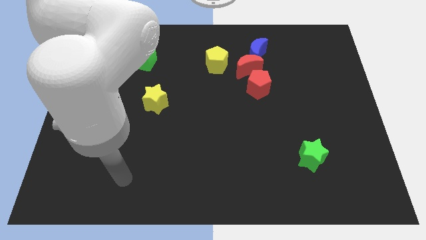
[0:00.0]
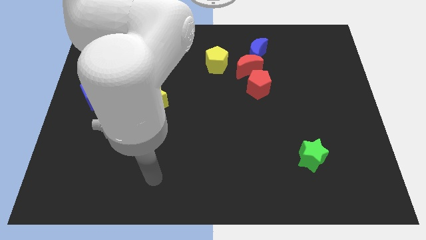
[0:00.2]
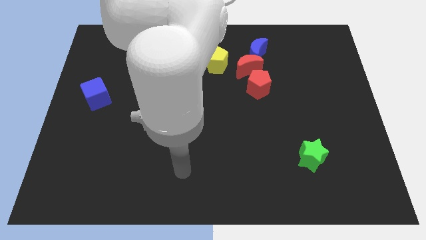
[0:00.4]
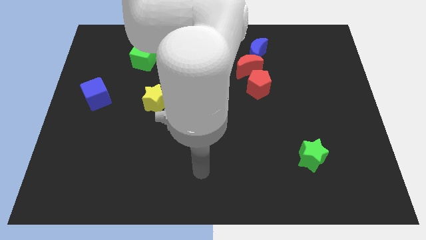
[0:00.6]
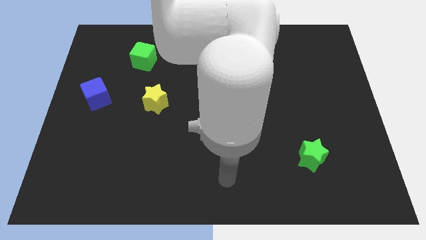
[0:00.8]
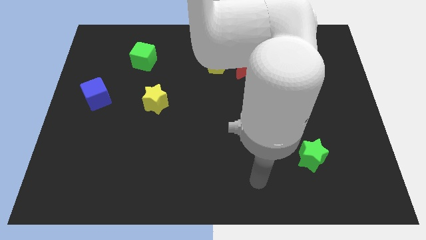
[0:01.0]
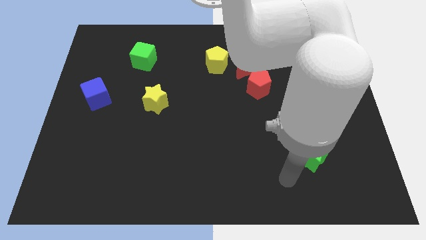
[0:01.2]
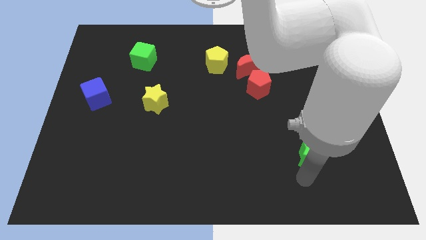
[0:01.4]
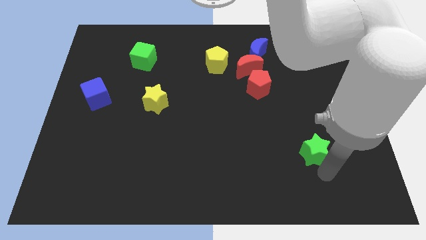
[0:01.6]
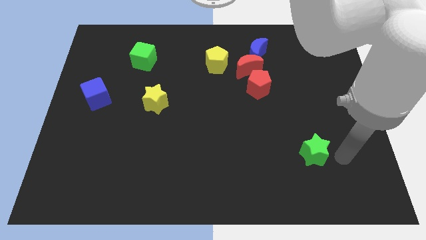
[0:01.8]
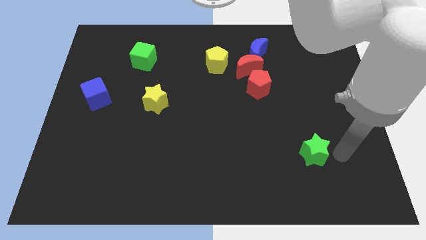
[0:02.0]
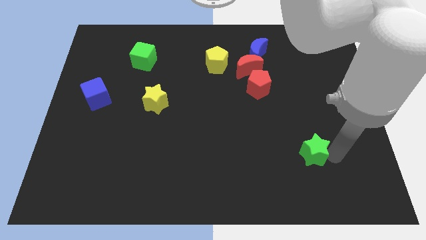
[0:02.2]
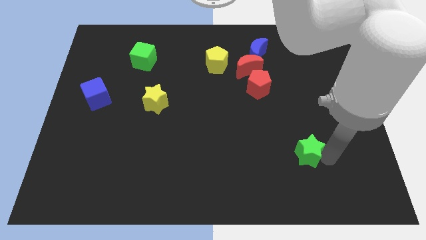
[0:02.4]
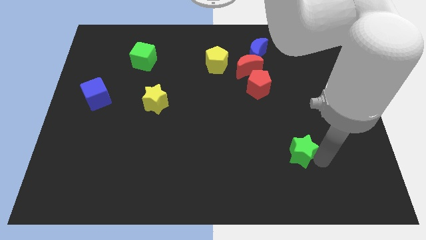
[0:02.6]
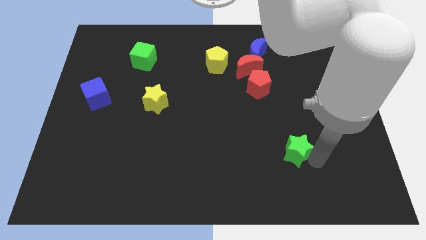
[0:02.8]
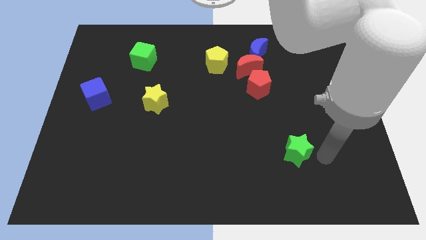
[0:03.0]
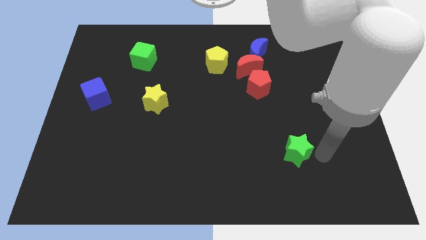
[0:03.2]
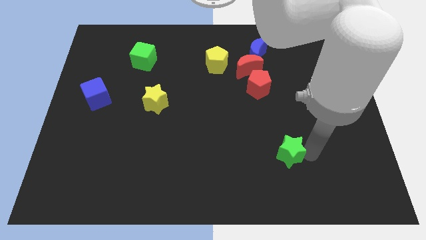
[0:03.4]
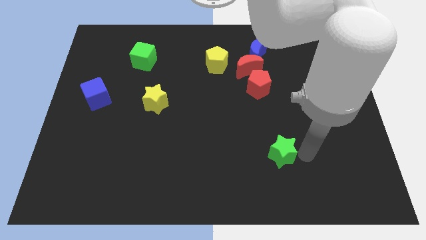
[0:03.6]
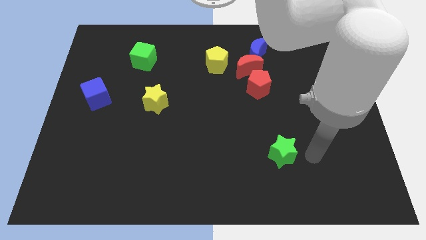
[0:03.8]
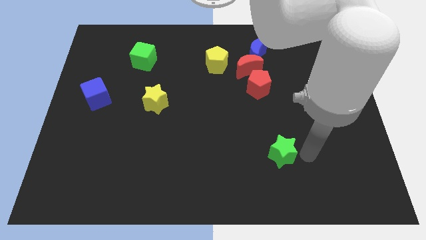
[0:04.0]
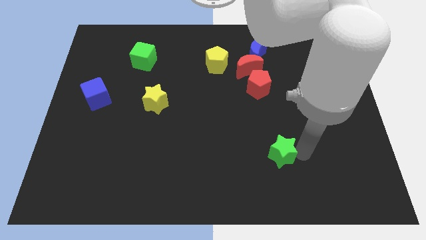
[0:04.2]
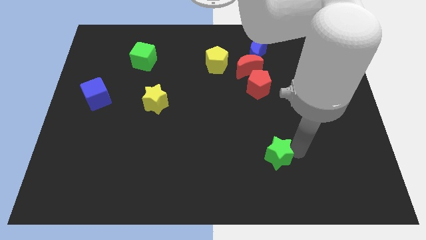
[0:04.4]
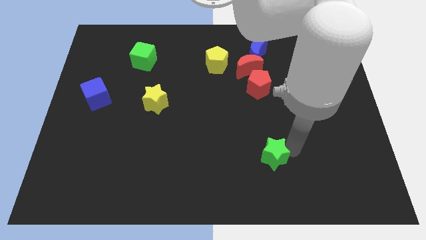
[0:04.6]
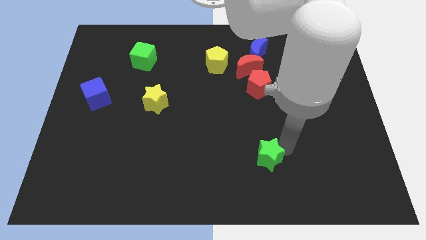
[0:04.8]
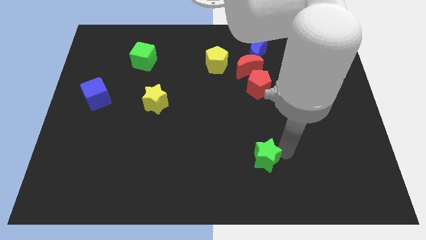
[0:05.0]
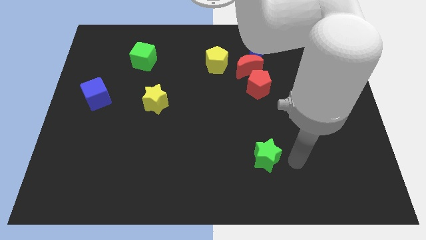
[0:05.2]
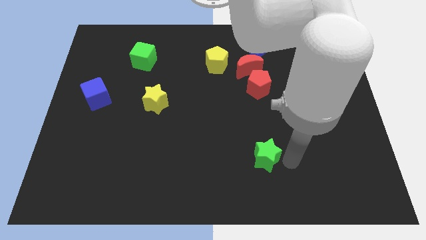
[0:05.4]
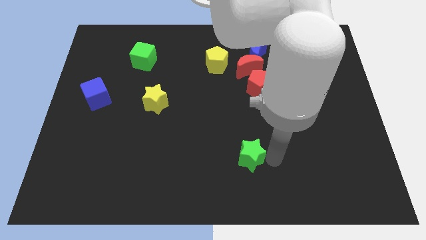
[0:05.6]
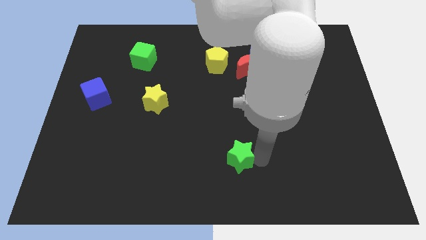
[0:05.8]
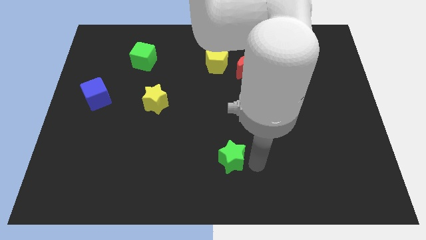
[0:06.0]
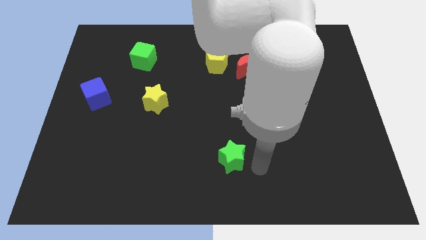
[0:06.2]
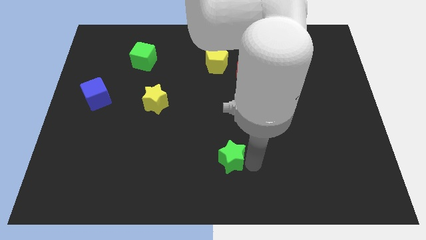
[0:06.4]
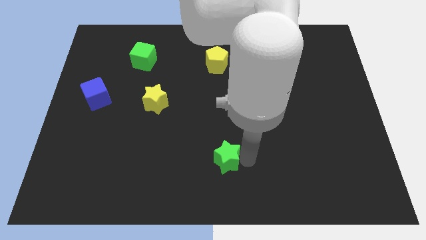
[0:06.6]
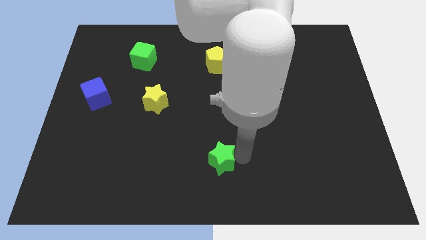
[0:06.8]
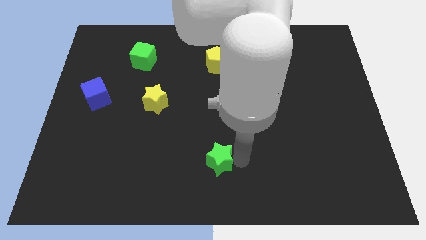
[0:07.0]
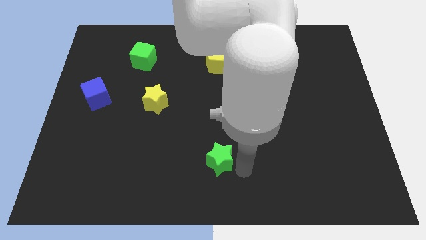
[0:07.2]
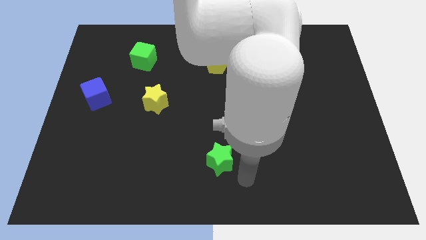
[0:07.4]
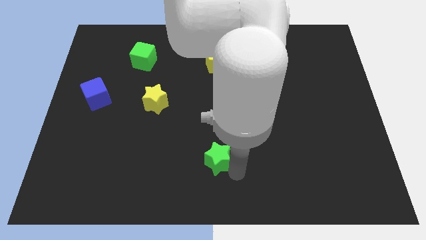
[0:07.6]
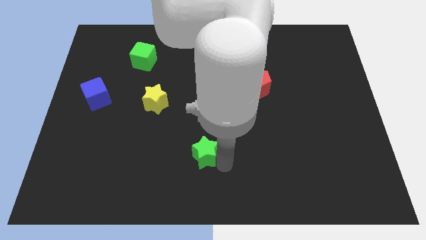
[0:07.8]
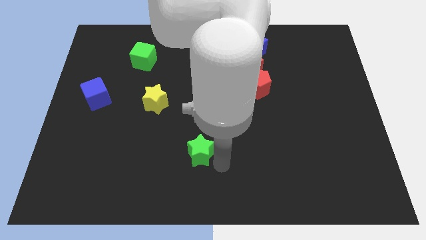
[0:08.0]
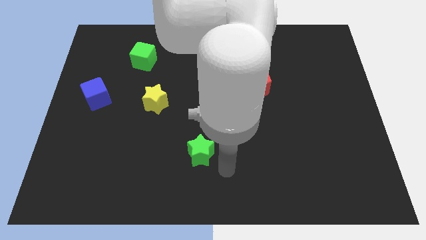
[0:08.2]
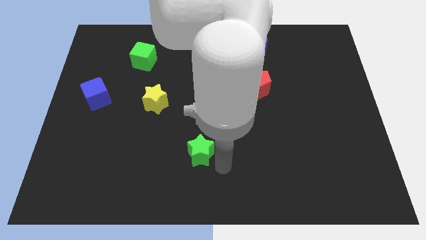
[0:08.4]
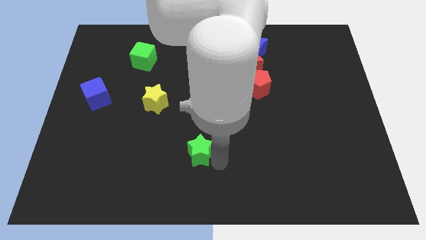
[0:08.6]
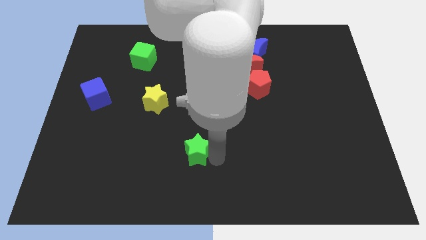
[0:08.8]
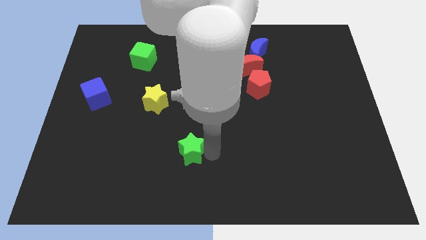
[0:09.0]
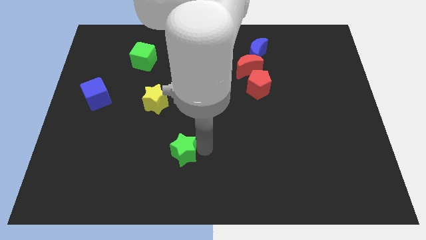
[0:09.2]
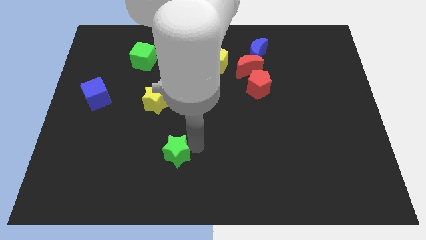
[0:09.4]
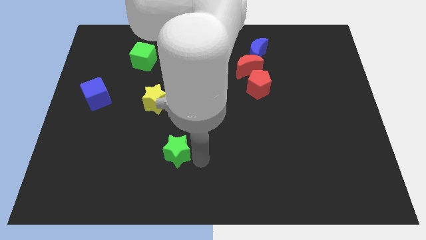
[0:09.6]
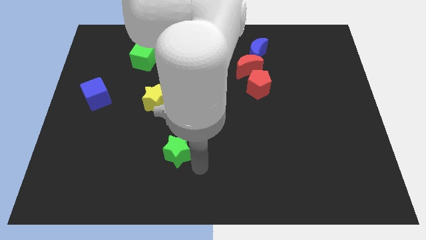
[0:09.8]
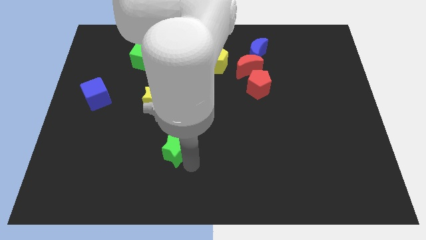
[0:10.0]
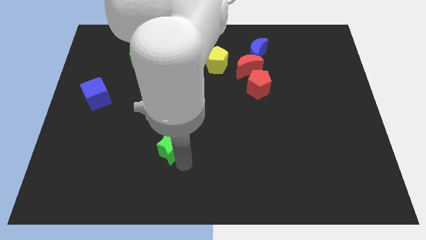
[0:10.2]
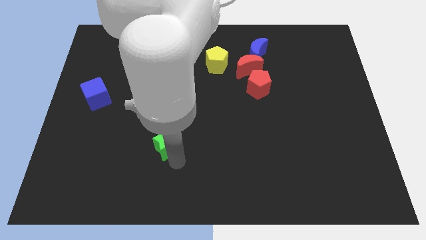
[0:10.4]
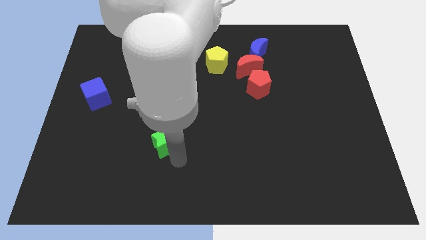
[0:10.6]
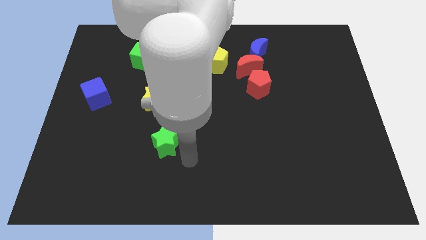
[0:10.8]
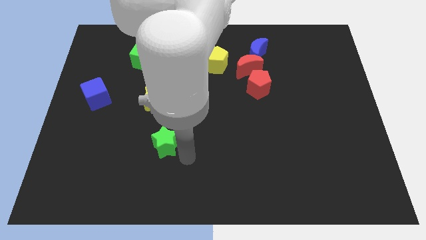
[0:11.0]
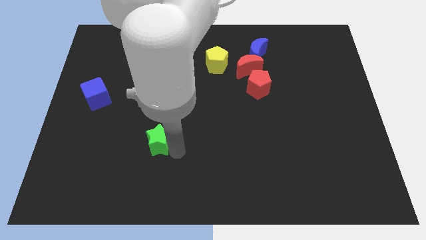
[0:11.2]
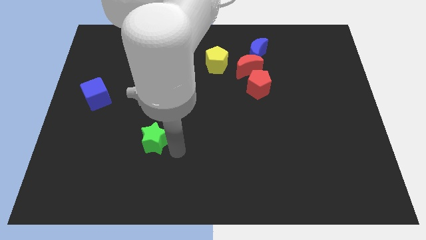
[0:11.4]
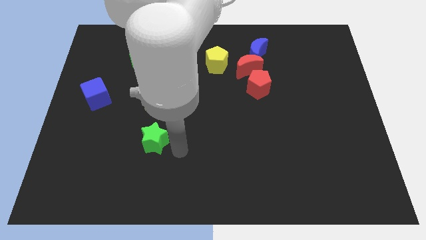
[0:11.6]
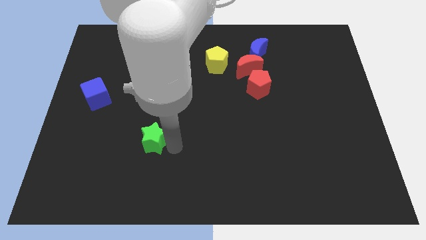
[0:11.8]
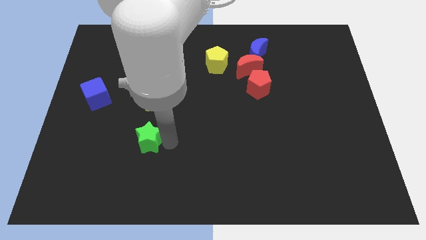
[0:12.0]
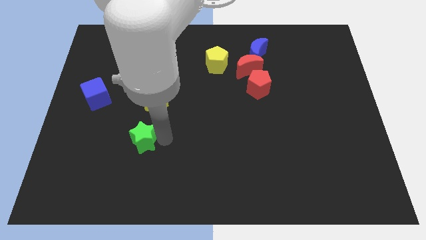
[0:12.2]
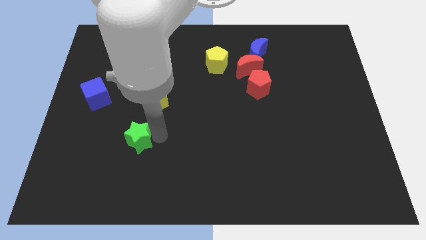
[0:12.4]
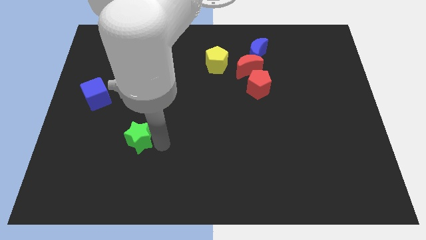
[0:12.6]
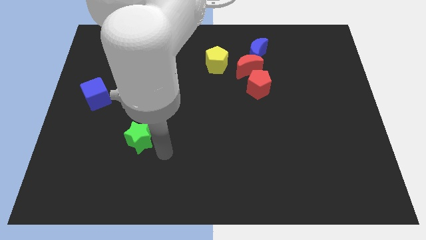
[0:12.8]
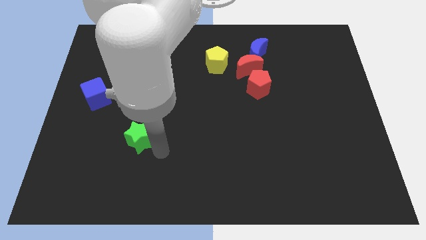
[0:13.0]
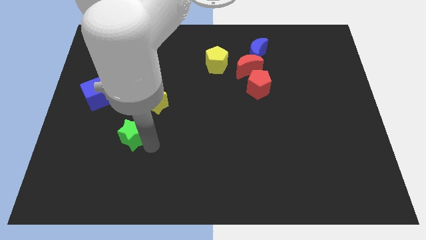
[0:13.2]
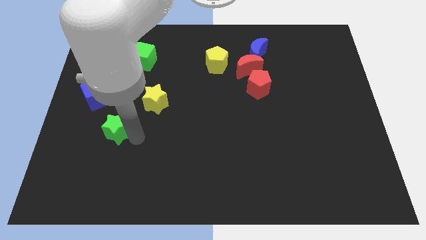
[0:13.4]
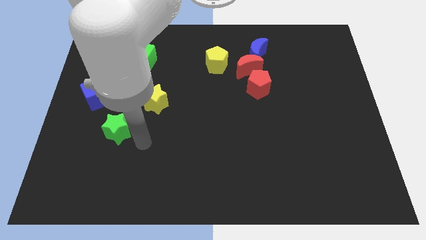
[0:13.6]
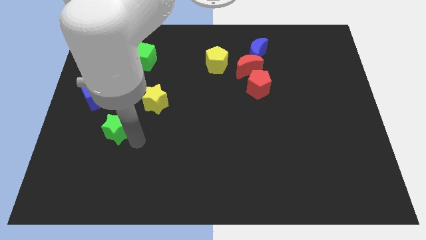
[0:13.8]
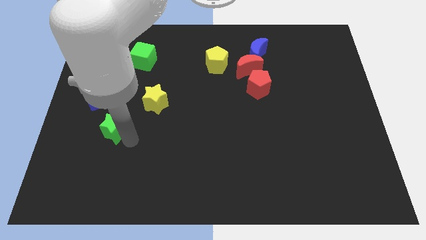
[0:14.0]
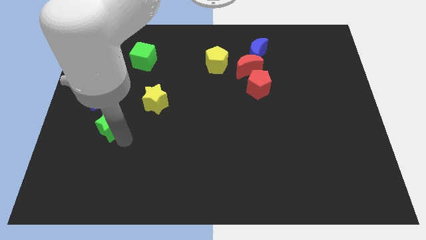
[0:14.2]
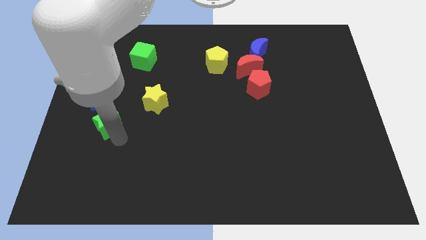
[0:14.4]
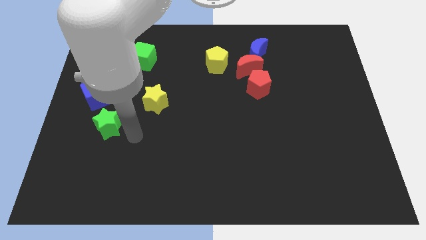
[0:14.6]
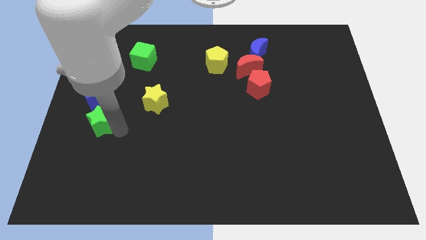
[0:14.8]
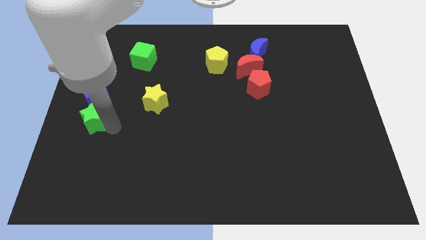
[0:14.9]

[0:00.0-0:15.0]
move the green star to the center left

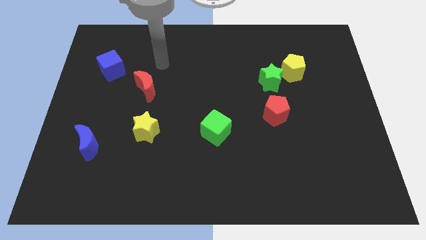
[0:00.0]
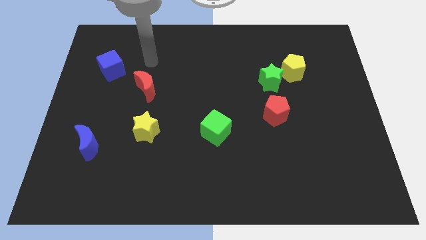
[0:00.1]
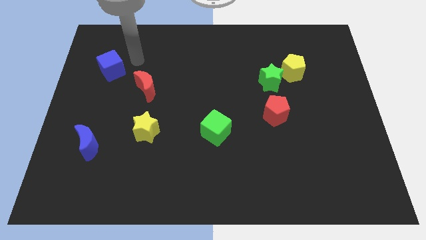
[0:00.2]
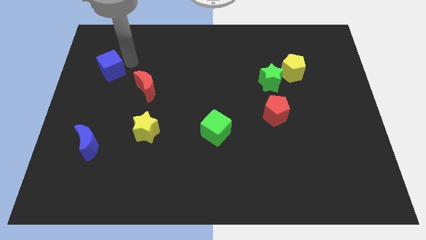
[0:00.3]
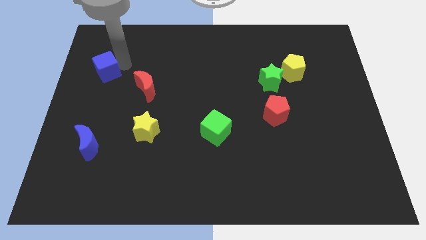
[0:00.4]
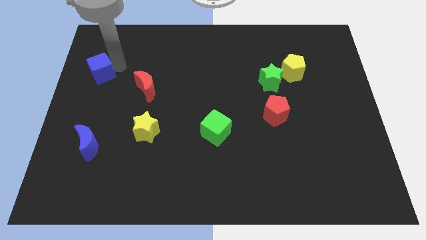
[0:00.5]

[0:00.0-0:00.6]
slide the blue cube to the left side
